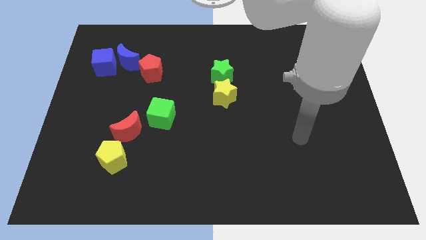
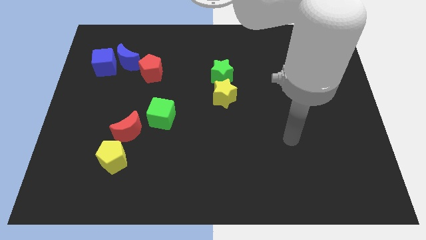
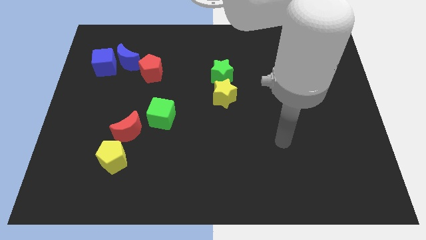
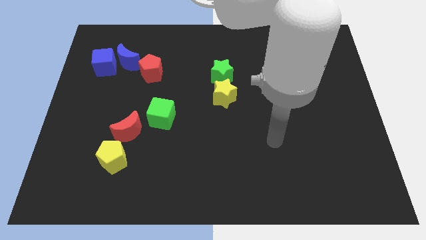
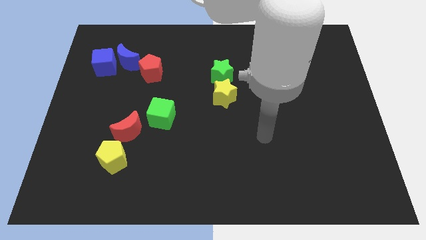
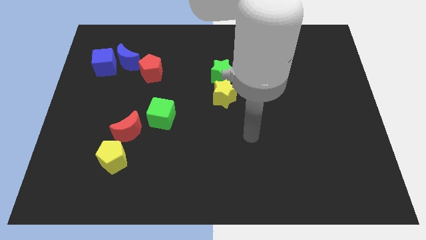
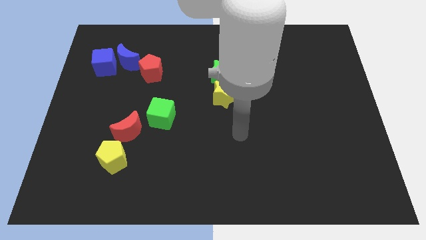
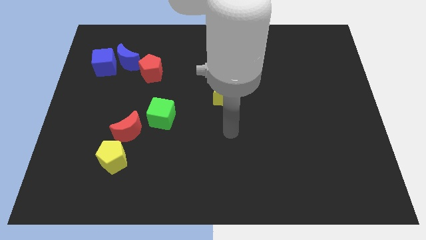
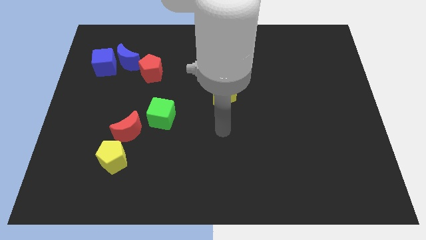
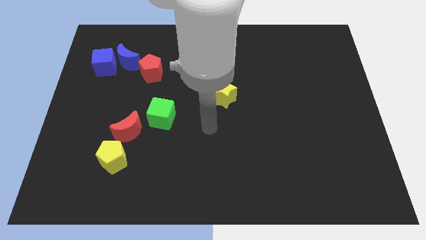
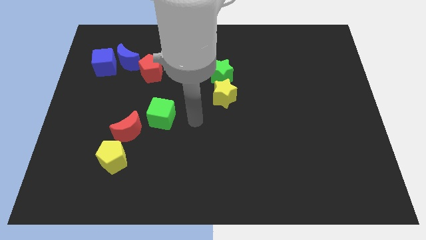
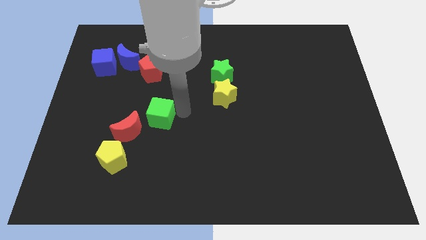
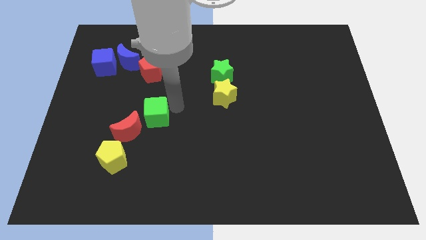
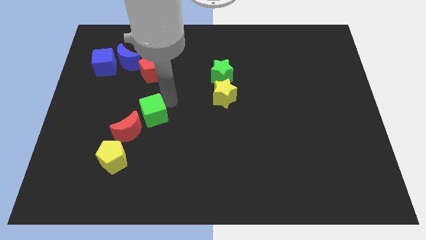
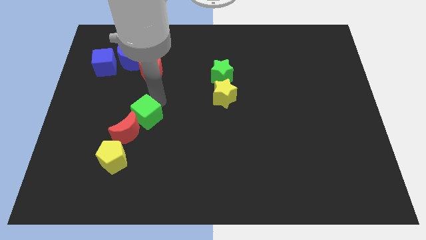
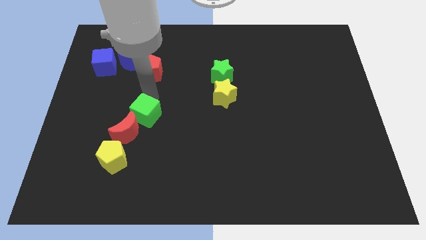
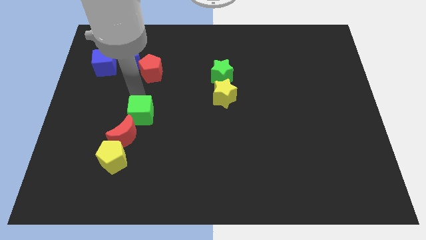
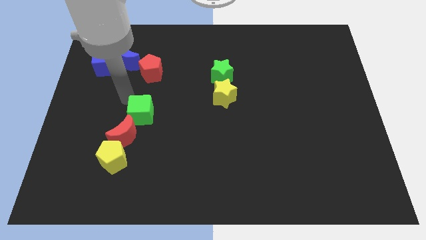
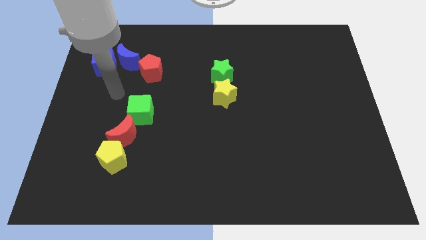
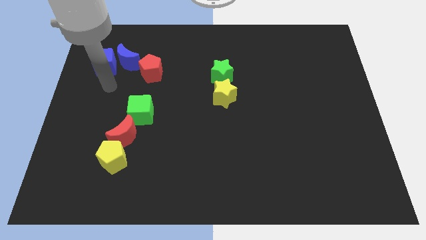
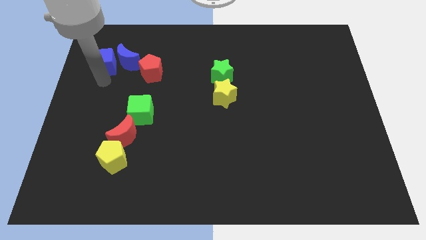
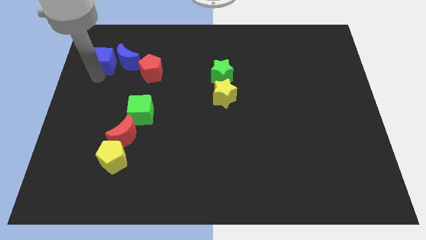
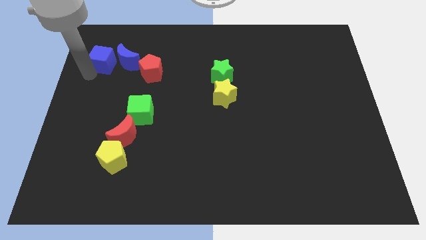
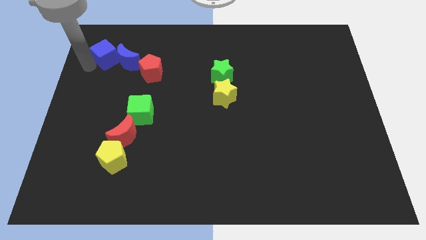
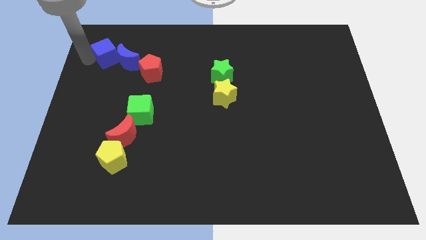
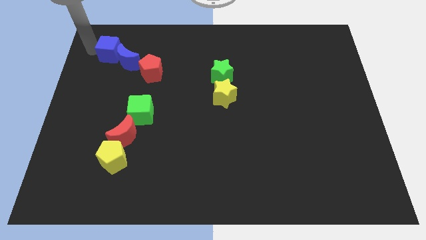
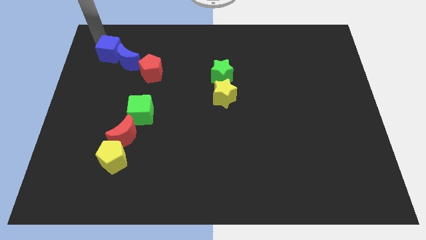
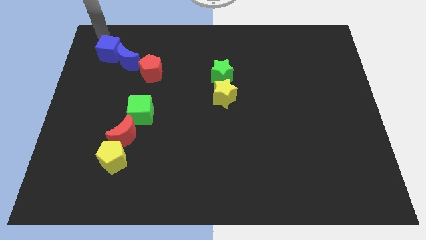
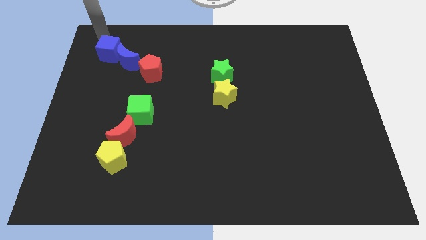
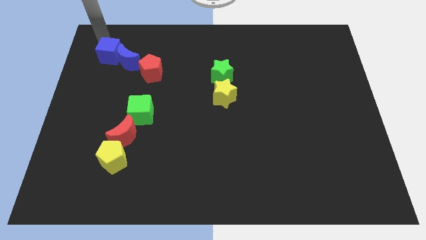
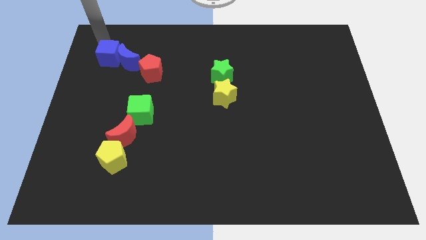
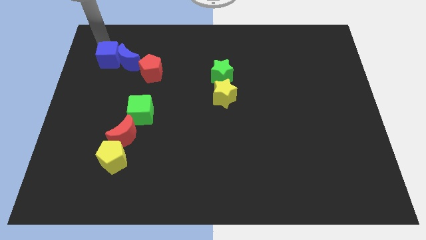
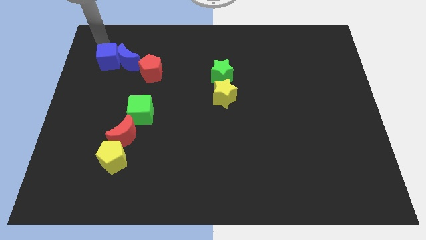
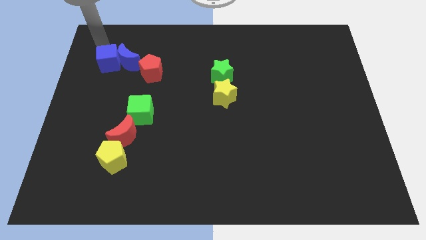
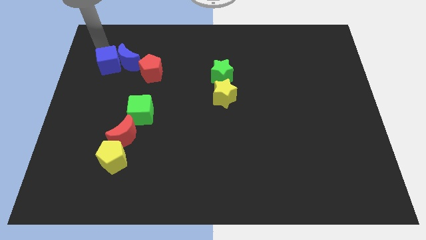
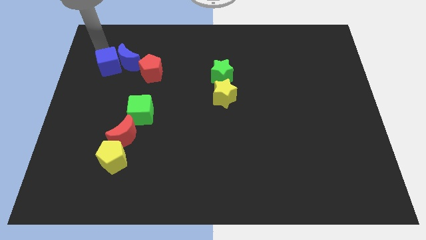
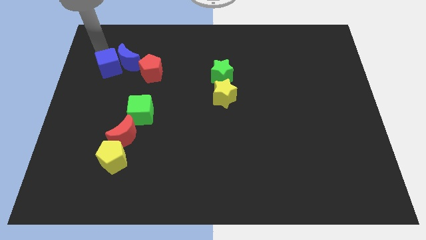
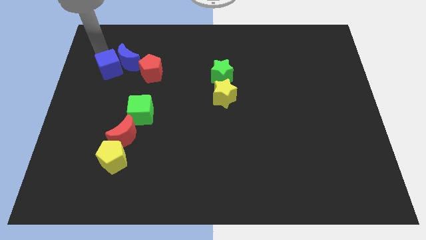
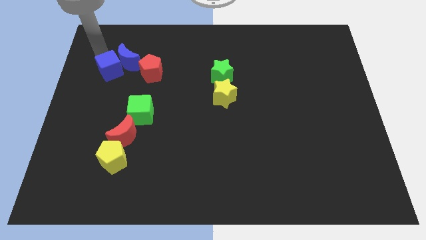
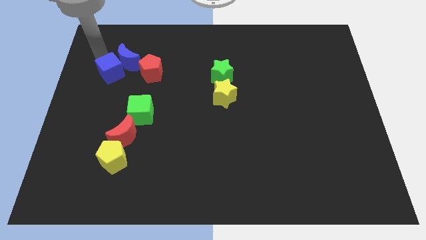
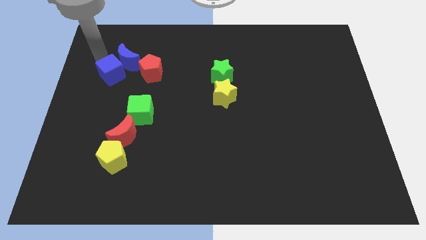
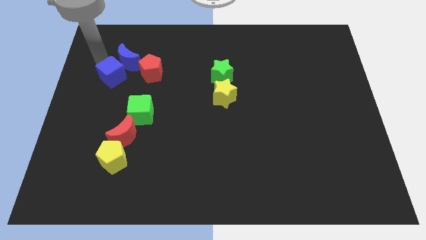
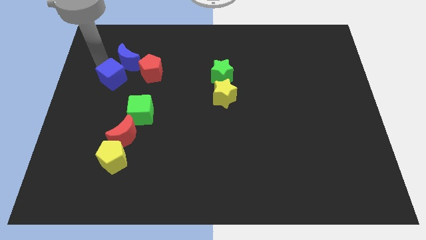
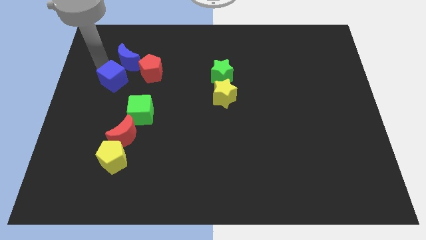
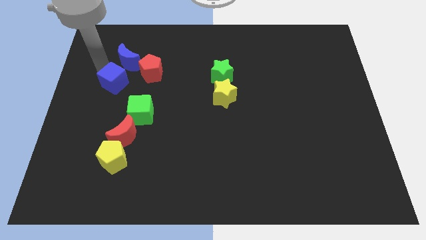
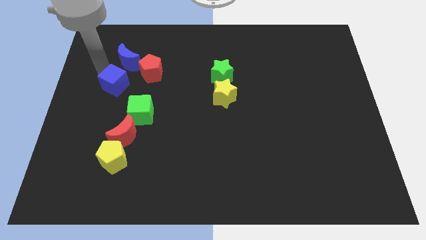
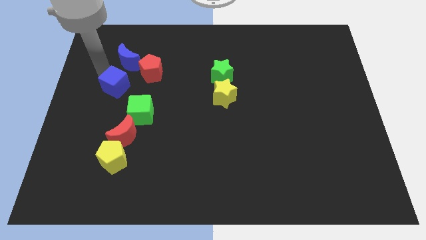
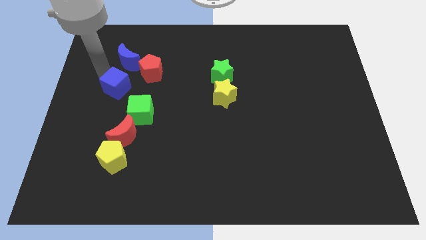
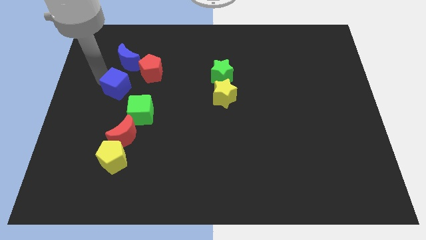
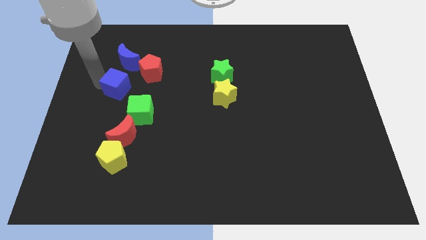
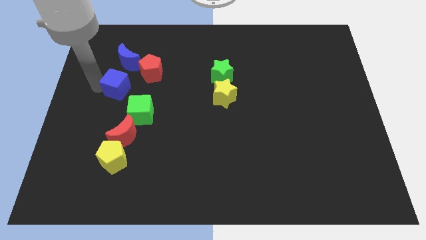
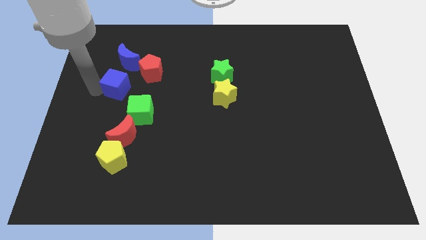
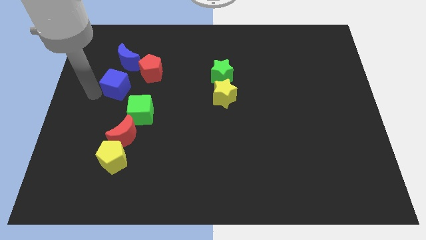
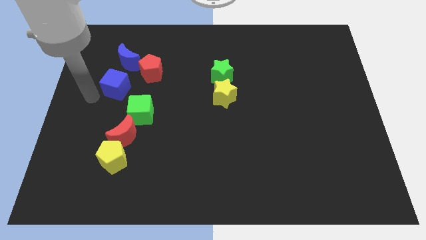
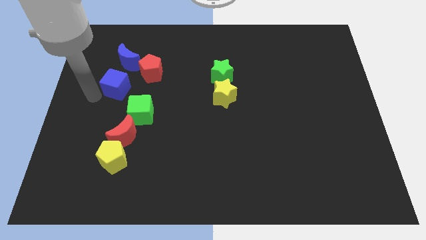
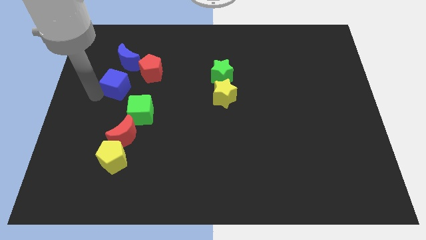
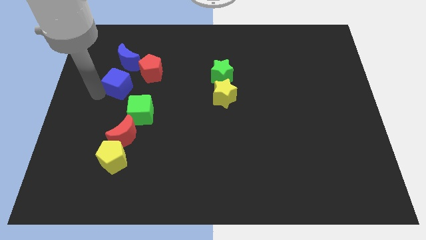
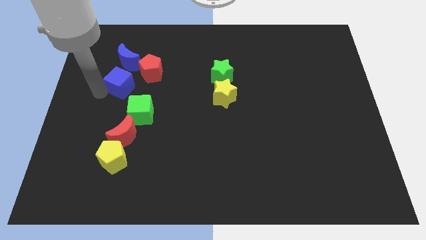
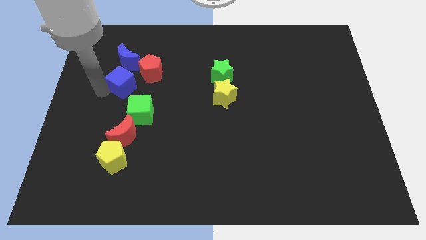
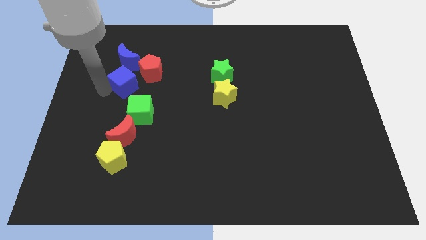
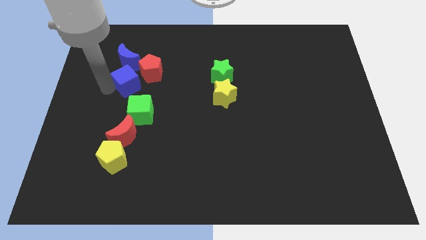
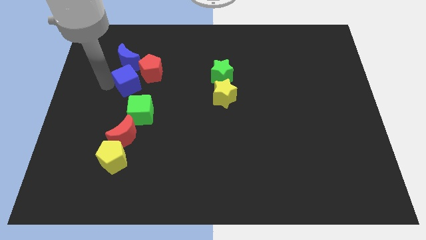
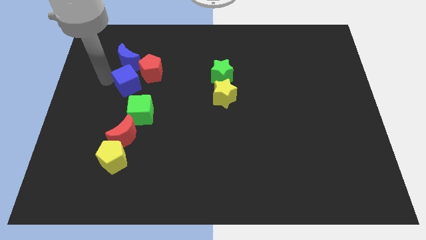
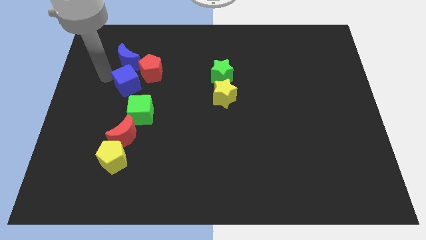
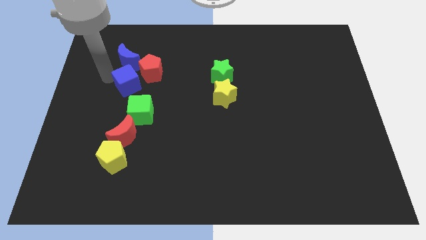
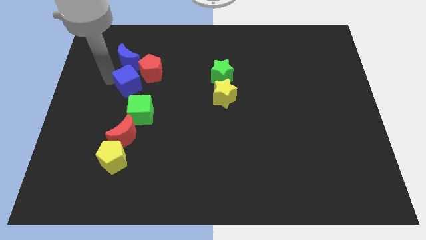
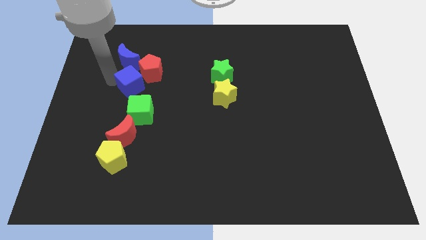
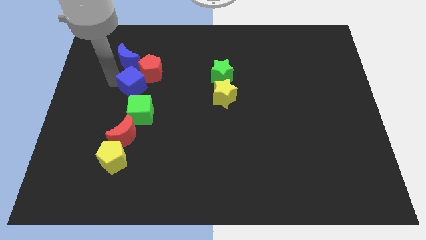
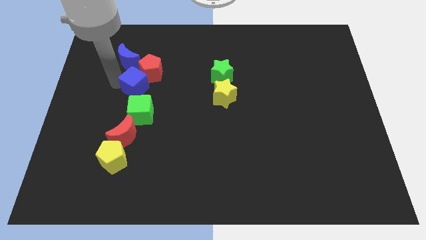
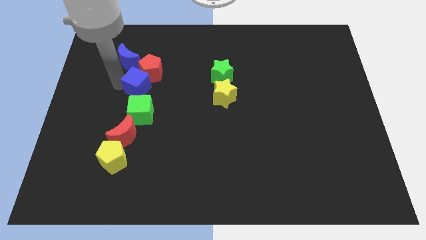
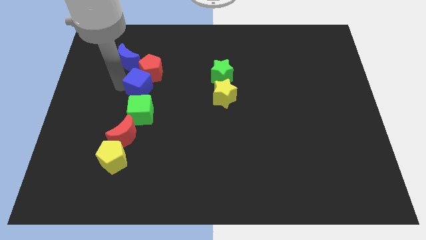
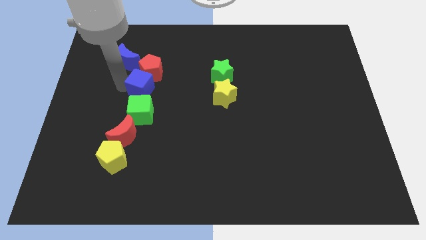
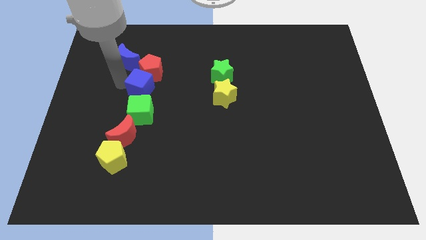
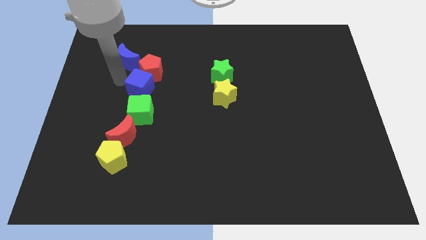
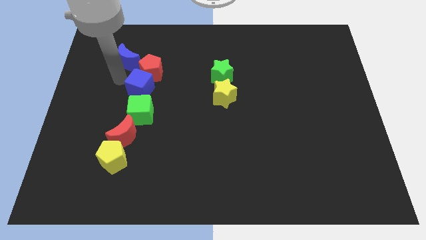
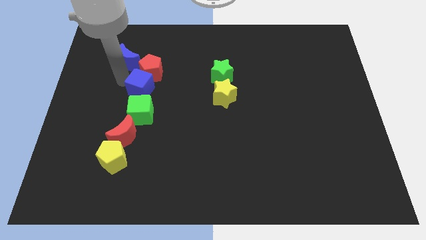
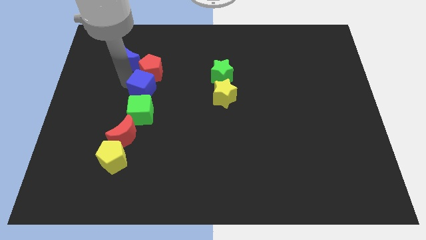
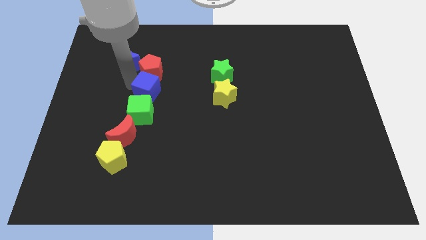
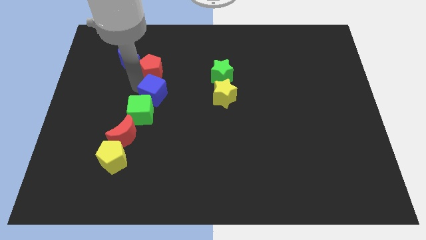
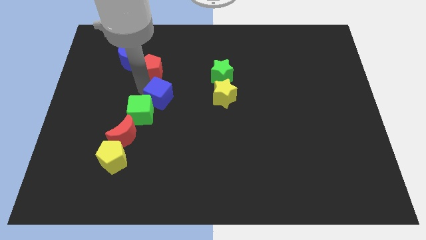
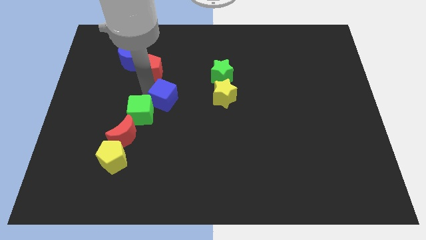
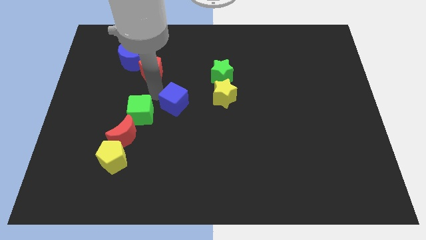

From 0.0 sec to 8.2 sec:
slide the blue cube diagonally down and to the right
